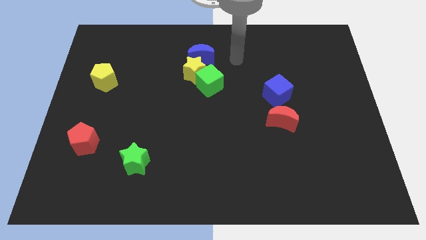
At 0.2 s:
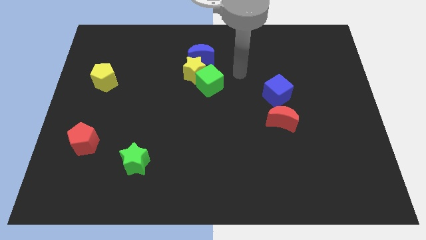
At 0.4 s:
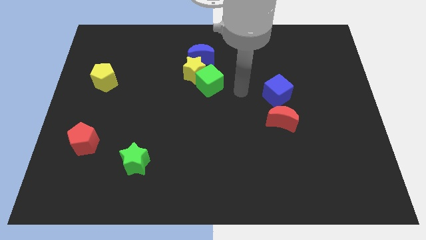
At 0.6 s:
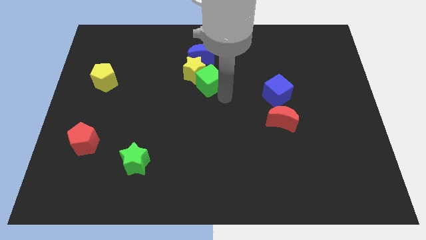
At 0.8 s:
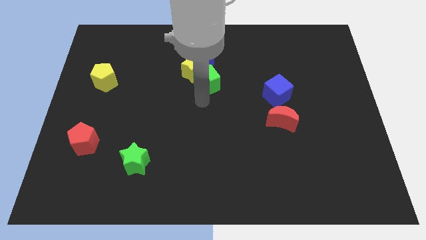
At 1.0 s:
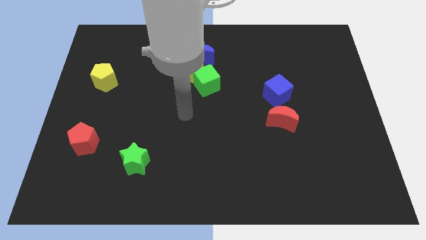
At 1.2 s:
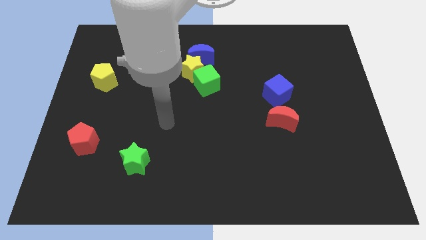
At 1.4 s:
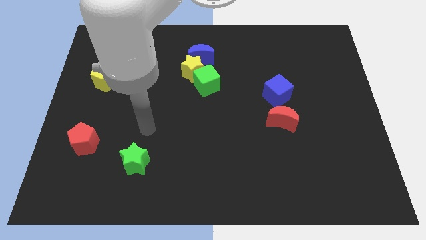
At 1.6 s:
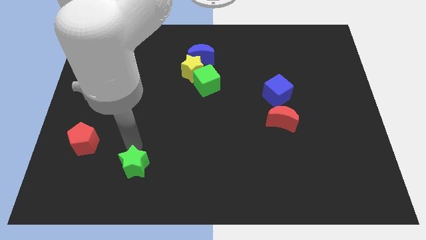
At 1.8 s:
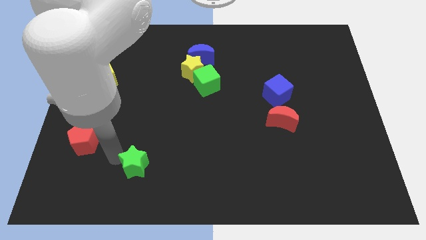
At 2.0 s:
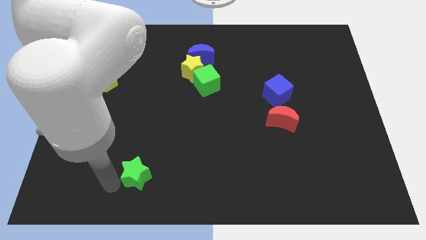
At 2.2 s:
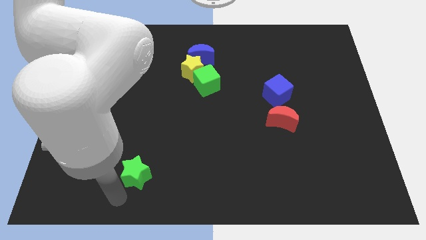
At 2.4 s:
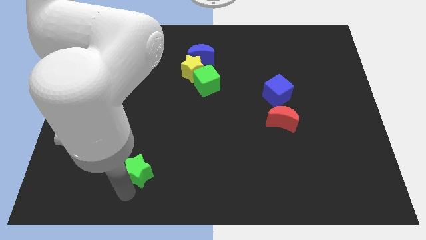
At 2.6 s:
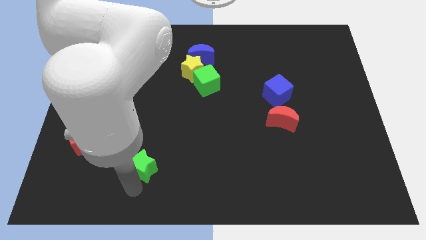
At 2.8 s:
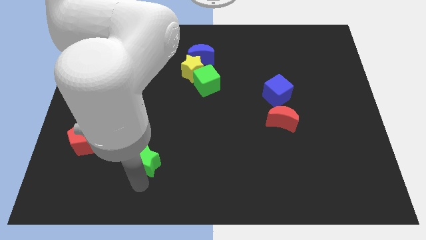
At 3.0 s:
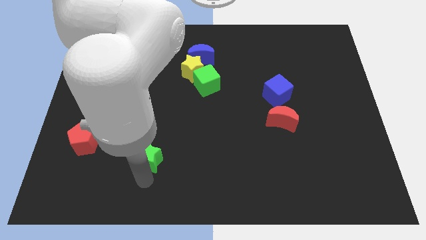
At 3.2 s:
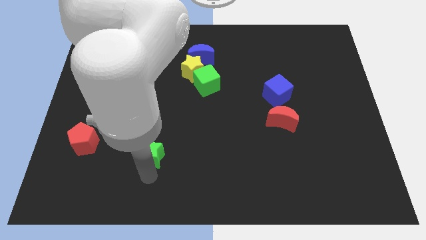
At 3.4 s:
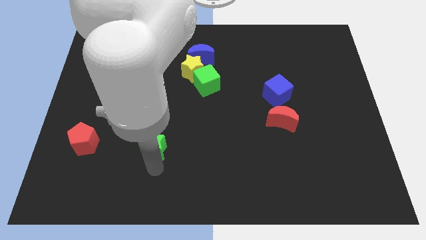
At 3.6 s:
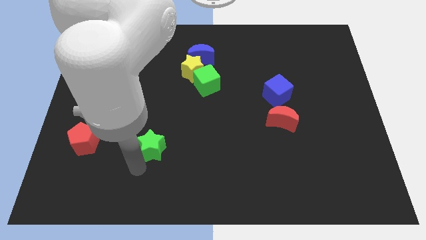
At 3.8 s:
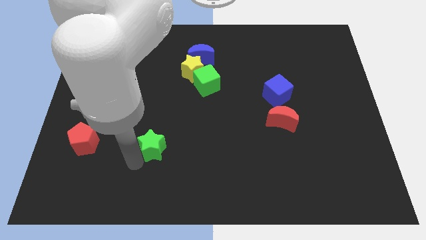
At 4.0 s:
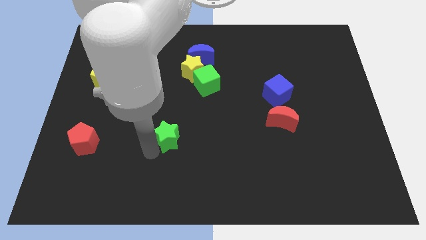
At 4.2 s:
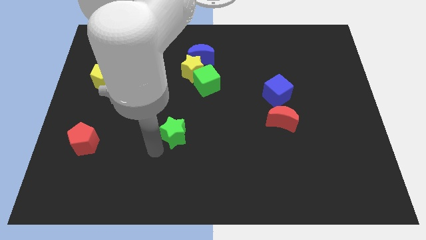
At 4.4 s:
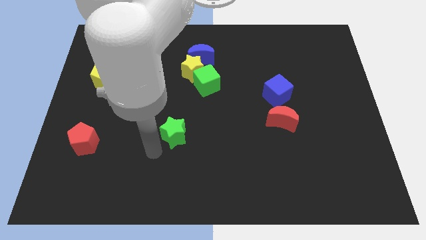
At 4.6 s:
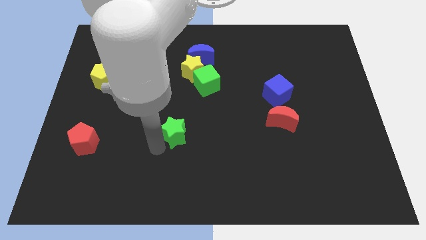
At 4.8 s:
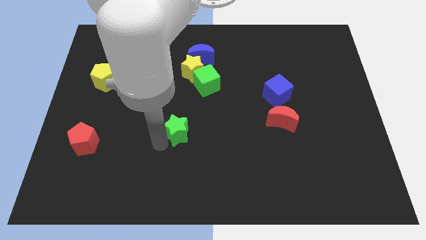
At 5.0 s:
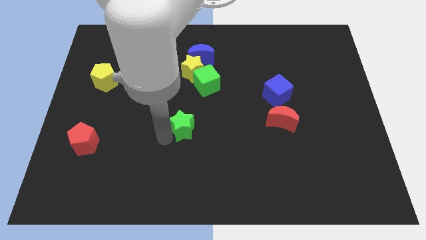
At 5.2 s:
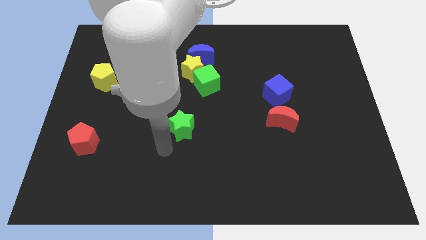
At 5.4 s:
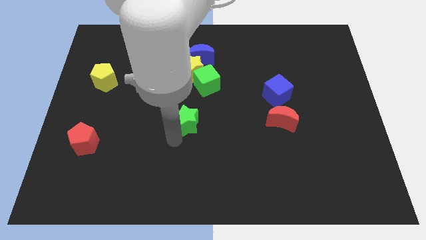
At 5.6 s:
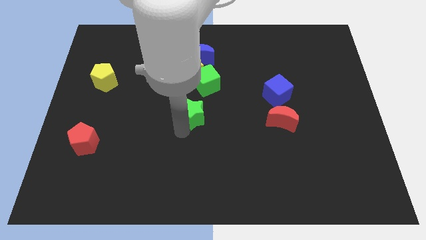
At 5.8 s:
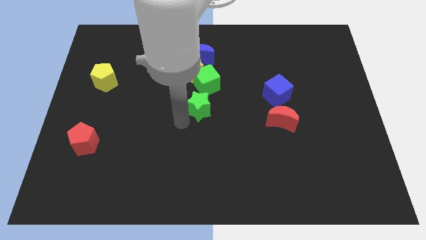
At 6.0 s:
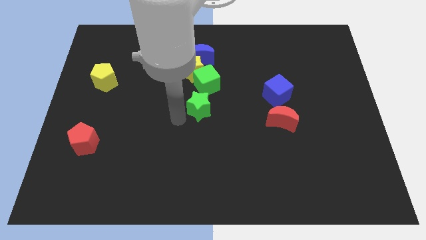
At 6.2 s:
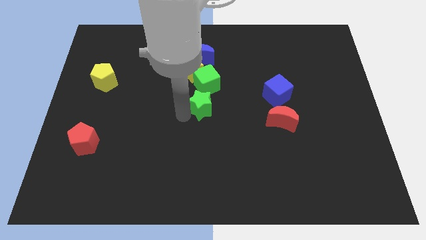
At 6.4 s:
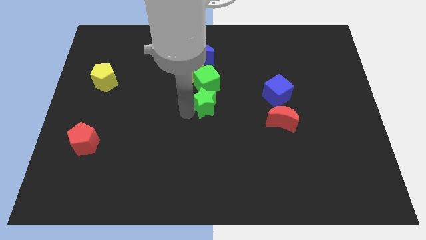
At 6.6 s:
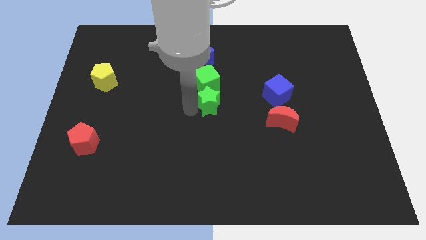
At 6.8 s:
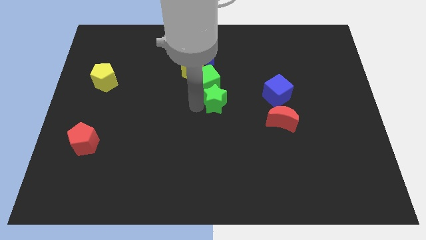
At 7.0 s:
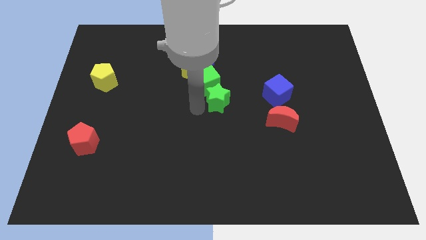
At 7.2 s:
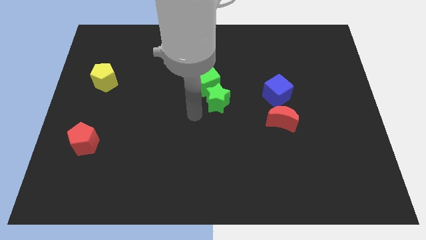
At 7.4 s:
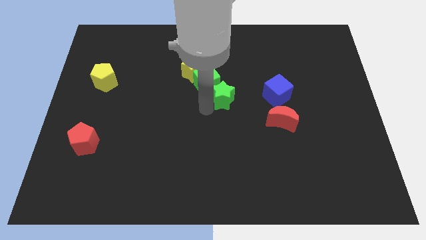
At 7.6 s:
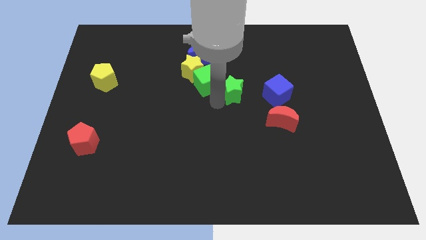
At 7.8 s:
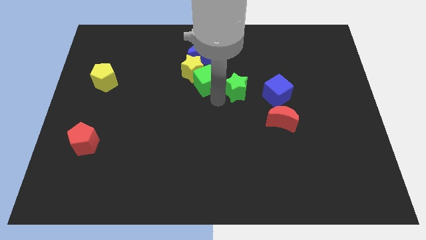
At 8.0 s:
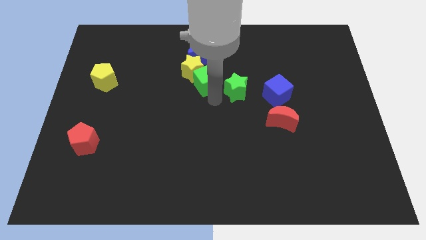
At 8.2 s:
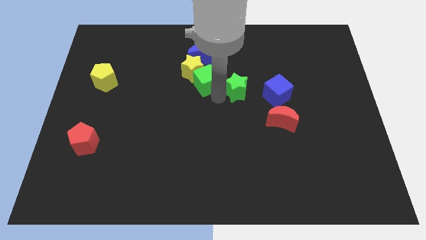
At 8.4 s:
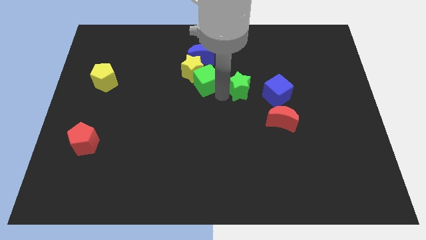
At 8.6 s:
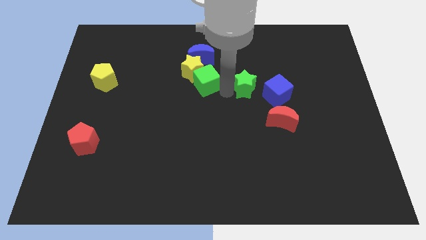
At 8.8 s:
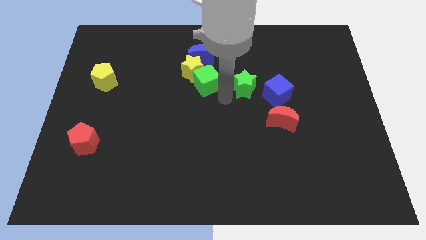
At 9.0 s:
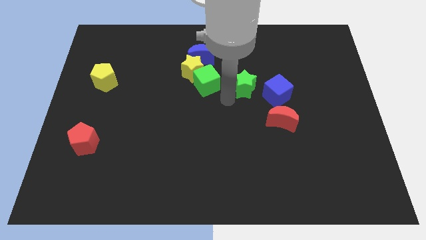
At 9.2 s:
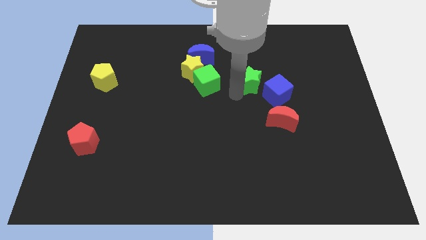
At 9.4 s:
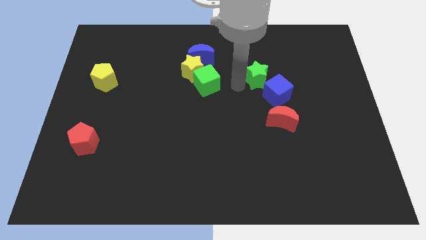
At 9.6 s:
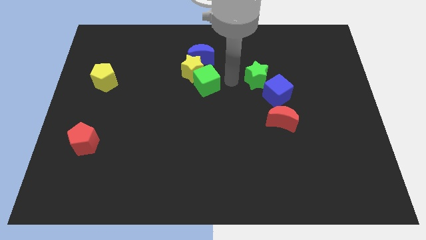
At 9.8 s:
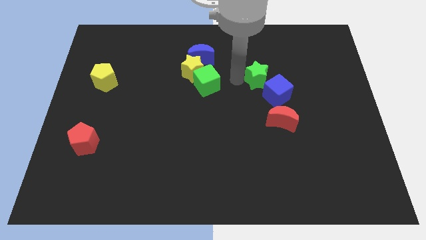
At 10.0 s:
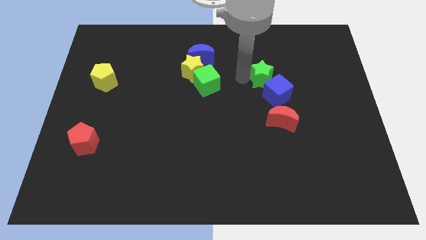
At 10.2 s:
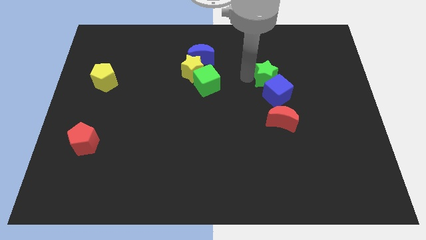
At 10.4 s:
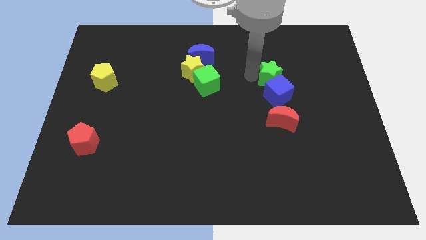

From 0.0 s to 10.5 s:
push the green star diagonally up and to the right of the blue cube

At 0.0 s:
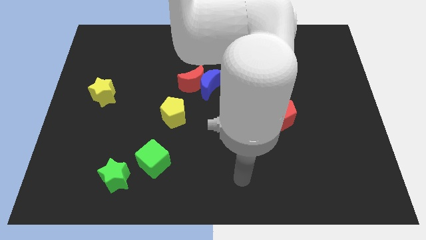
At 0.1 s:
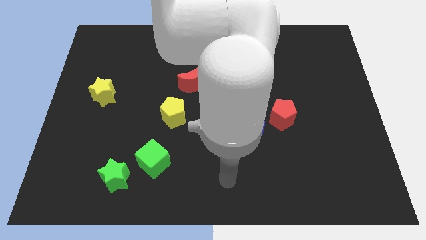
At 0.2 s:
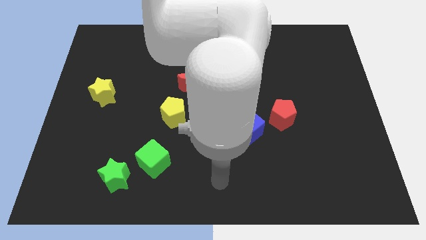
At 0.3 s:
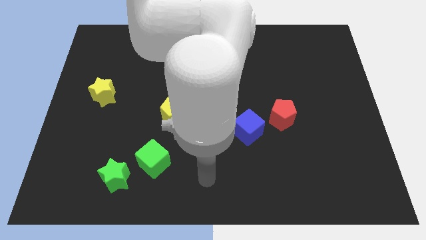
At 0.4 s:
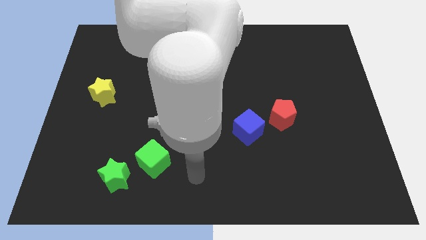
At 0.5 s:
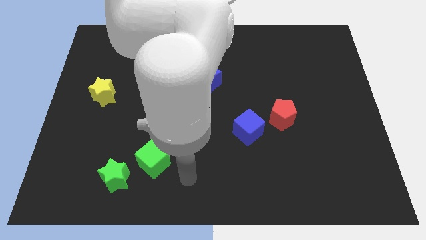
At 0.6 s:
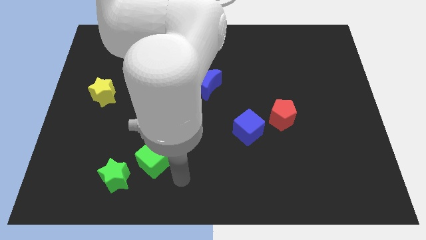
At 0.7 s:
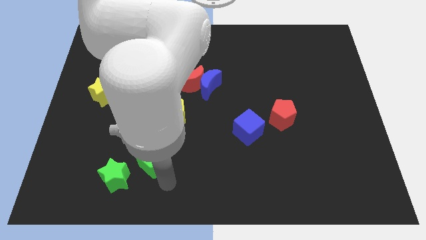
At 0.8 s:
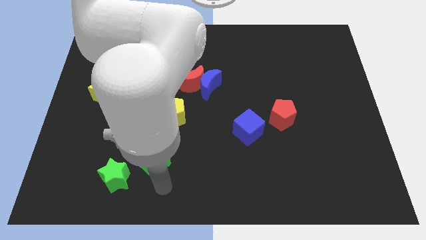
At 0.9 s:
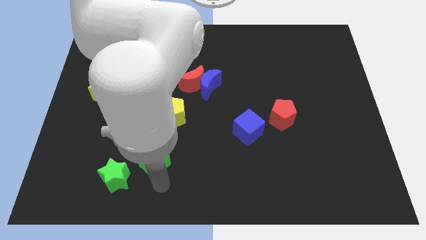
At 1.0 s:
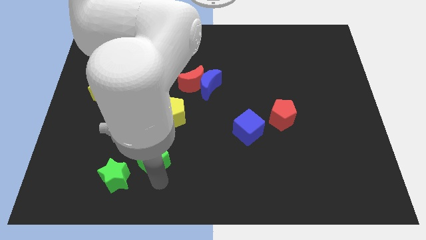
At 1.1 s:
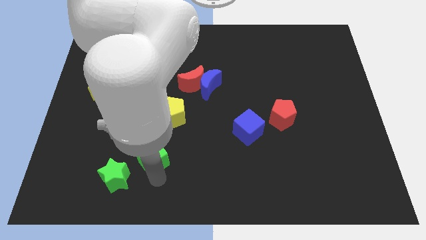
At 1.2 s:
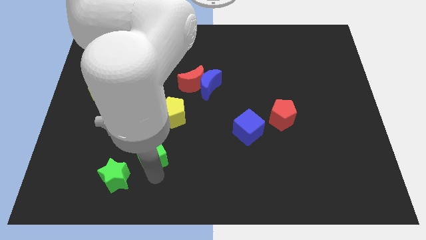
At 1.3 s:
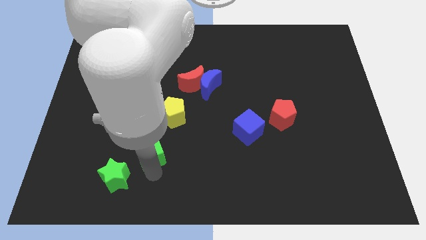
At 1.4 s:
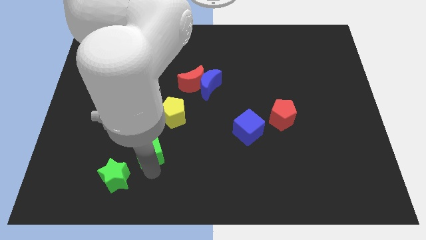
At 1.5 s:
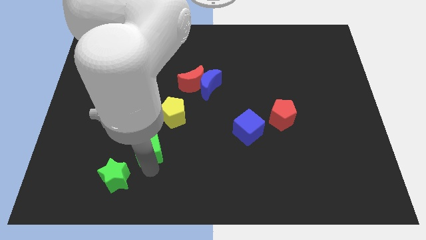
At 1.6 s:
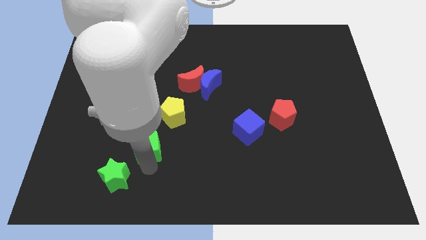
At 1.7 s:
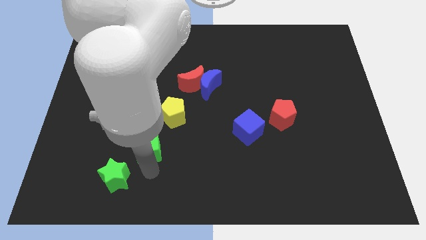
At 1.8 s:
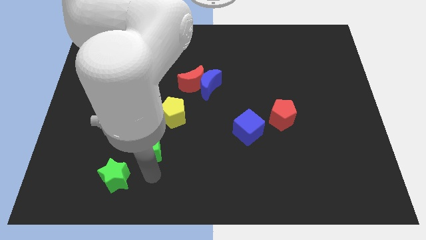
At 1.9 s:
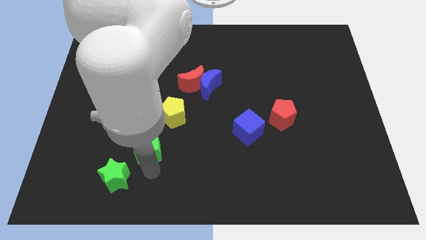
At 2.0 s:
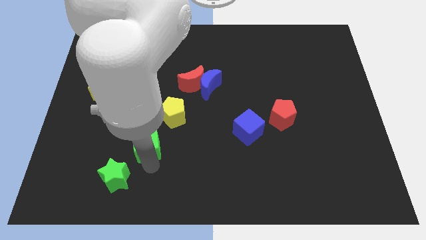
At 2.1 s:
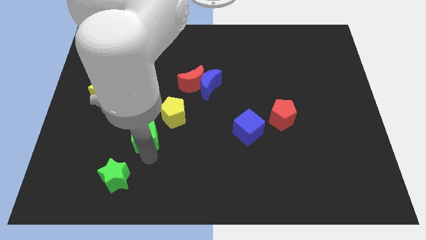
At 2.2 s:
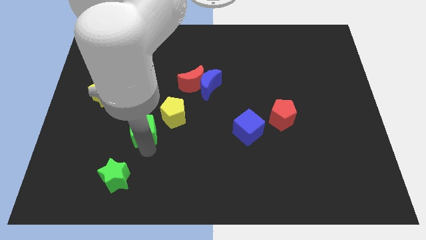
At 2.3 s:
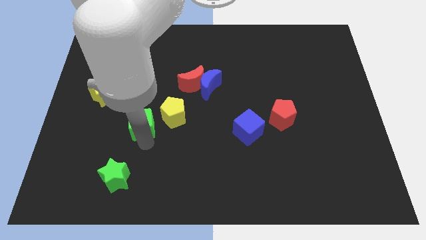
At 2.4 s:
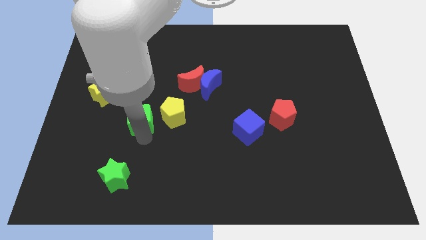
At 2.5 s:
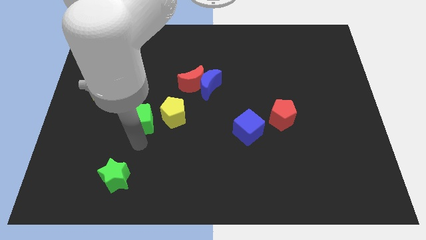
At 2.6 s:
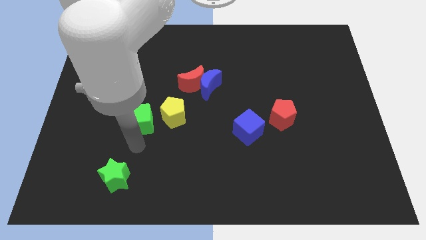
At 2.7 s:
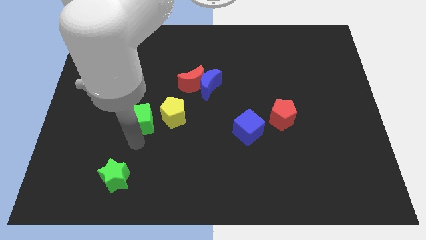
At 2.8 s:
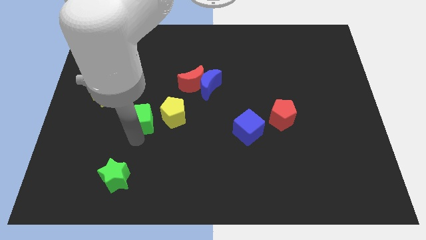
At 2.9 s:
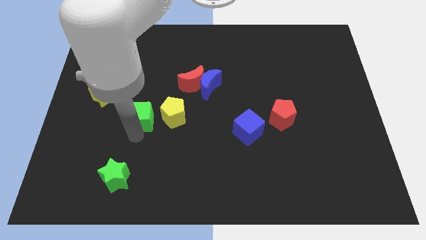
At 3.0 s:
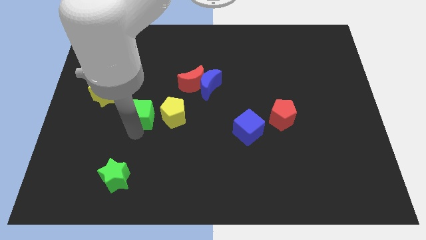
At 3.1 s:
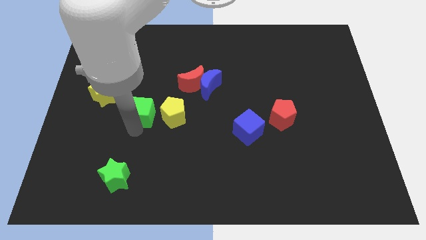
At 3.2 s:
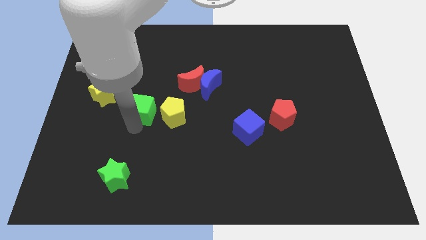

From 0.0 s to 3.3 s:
push the green cube to the right of the yellow star
